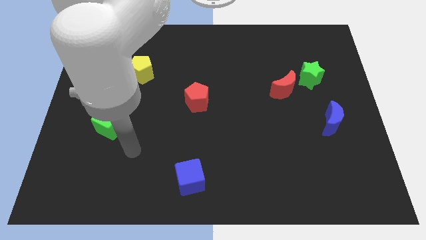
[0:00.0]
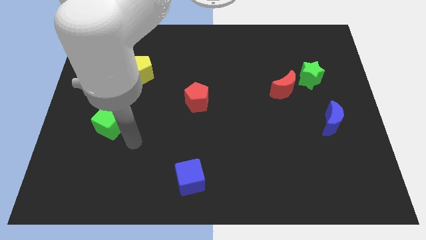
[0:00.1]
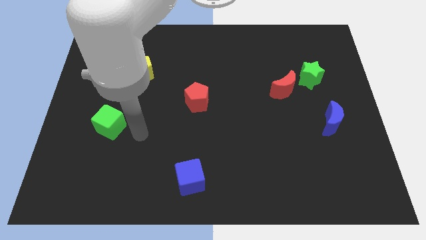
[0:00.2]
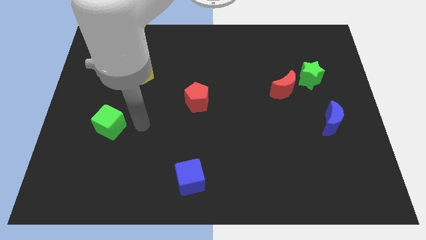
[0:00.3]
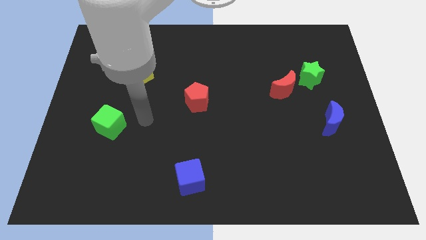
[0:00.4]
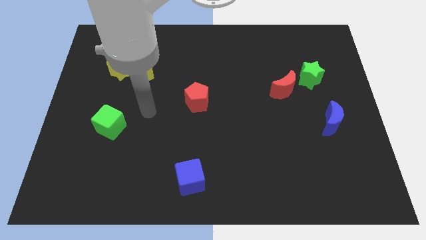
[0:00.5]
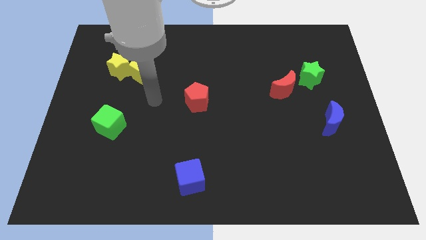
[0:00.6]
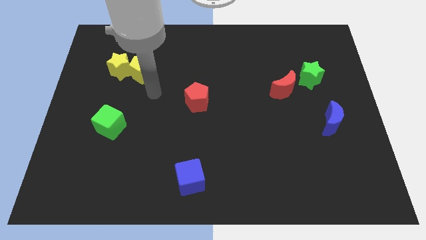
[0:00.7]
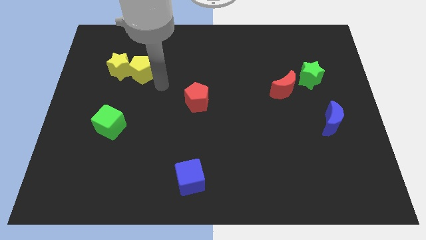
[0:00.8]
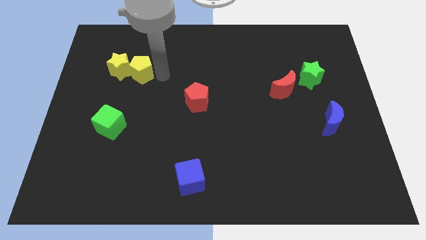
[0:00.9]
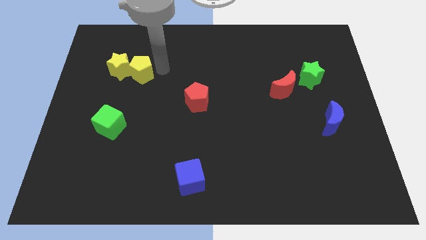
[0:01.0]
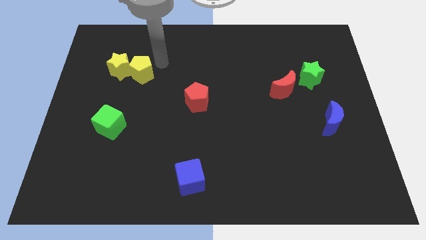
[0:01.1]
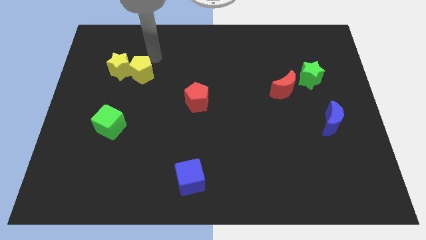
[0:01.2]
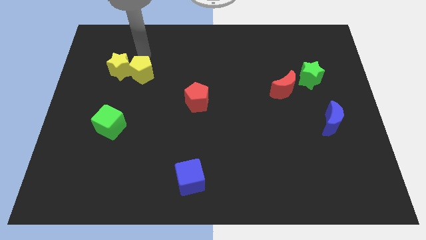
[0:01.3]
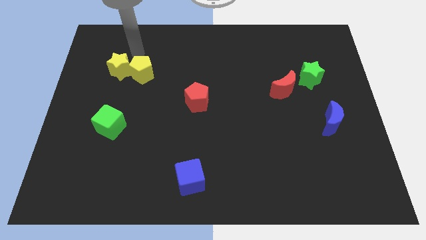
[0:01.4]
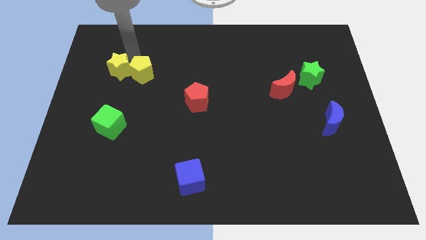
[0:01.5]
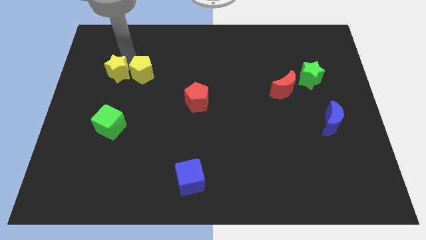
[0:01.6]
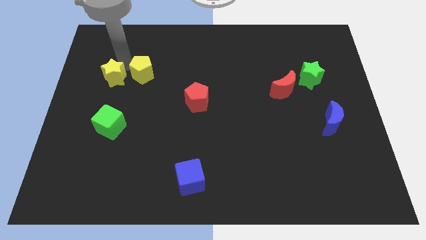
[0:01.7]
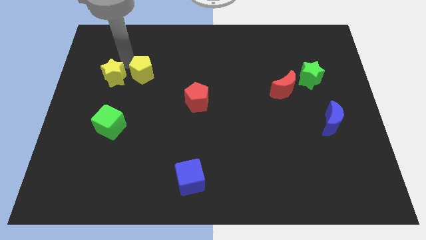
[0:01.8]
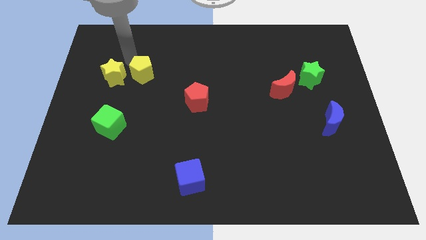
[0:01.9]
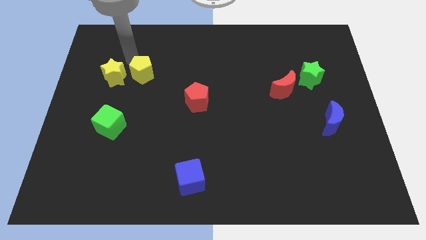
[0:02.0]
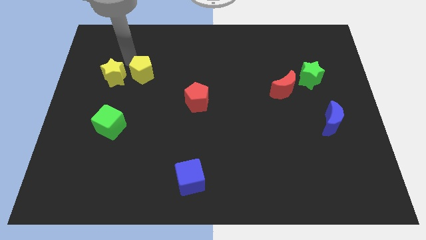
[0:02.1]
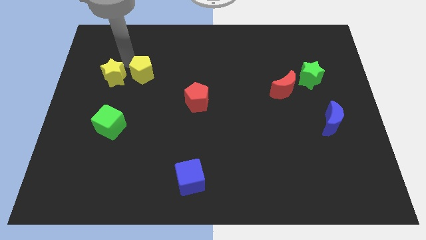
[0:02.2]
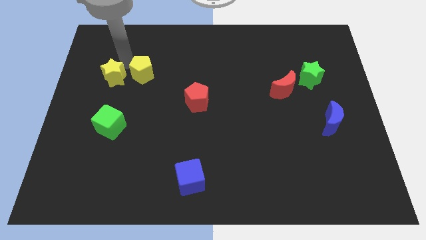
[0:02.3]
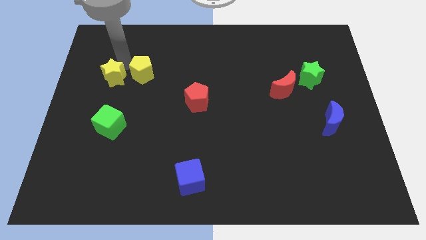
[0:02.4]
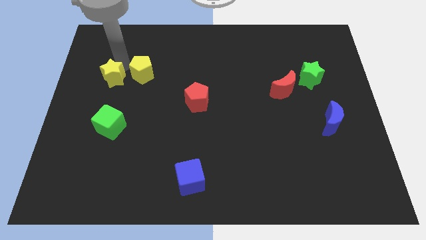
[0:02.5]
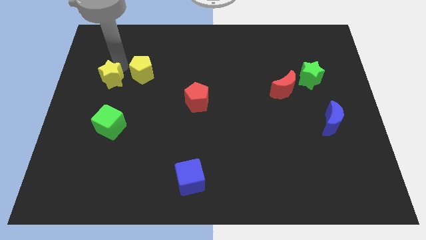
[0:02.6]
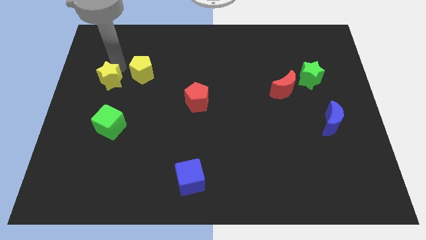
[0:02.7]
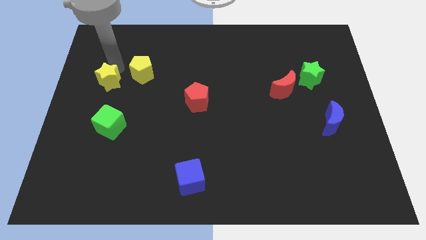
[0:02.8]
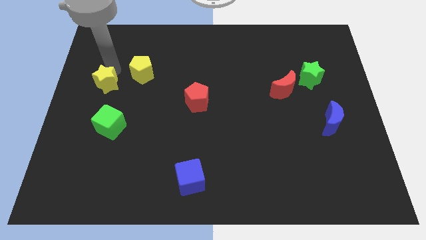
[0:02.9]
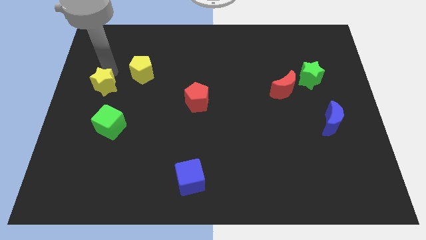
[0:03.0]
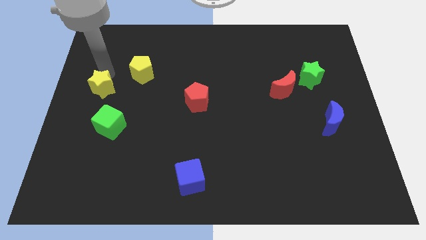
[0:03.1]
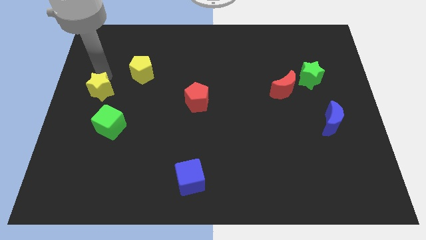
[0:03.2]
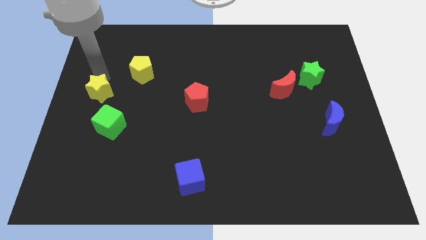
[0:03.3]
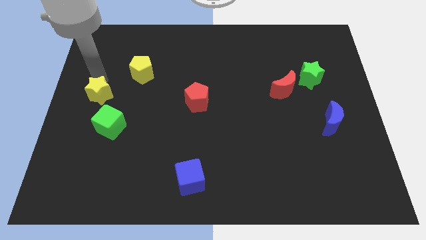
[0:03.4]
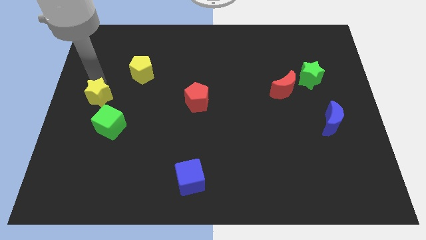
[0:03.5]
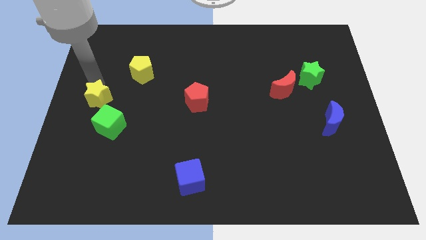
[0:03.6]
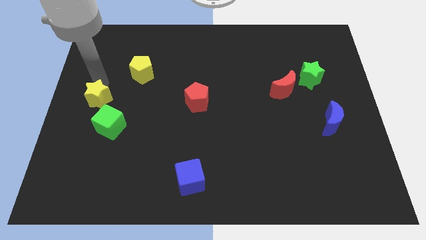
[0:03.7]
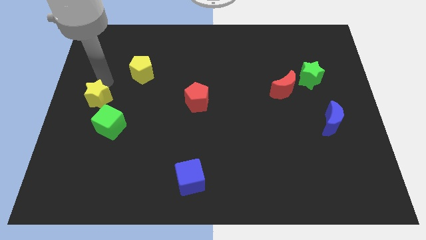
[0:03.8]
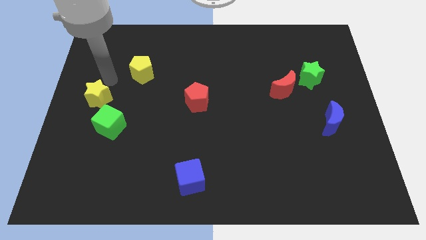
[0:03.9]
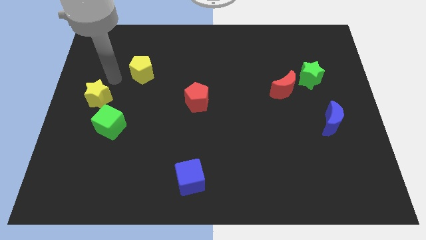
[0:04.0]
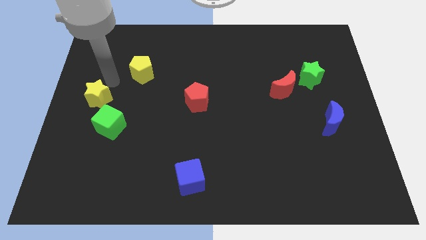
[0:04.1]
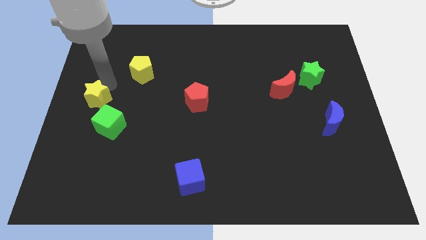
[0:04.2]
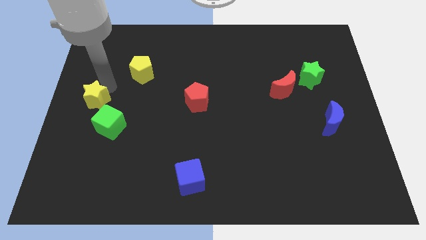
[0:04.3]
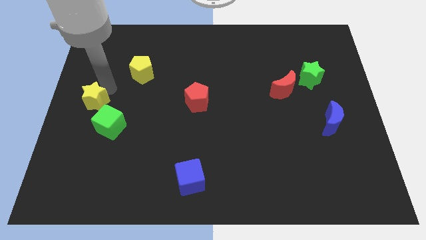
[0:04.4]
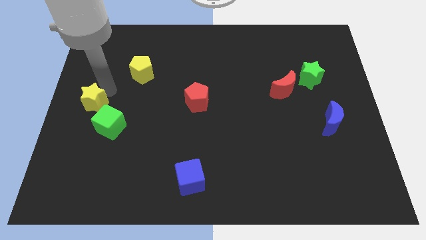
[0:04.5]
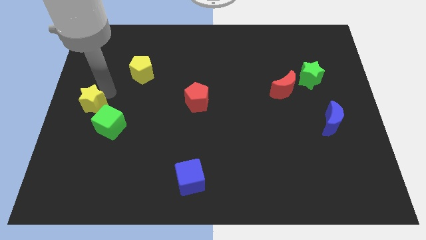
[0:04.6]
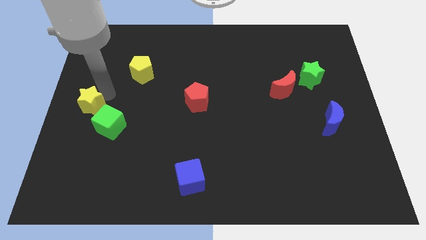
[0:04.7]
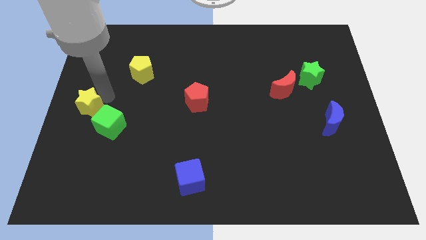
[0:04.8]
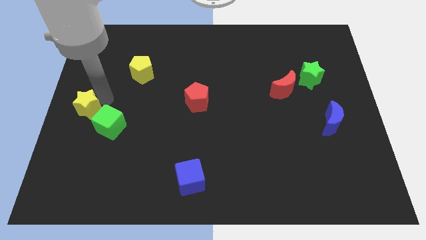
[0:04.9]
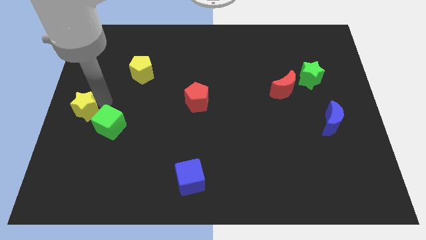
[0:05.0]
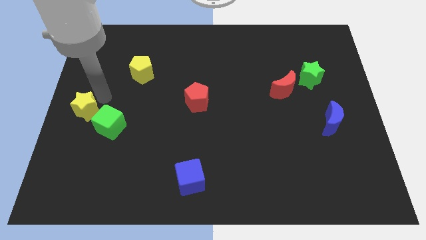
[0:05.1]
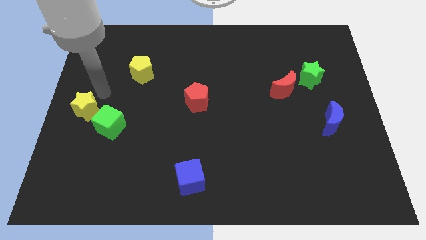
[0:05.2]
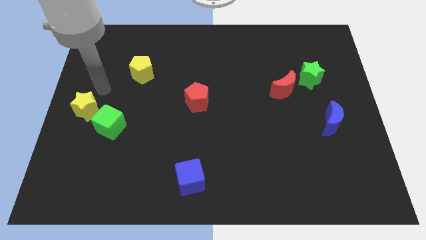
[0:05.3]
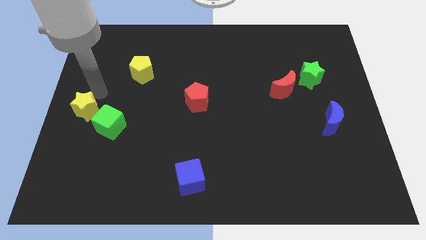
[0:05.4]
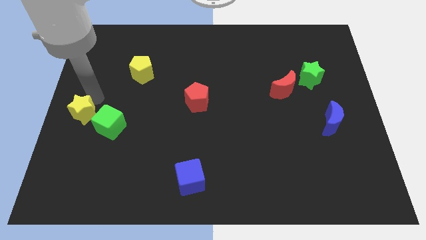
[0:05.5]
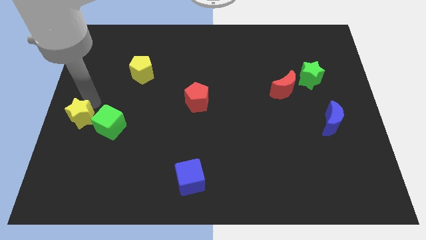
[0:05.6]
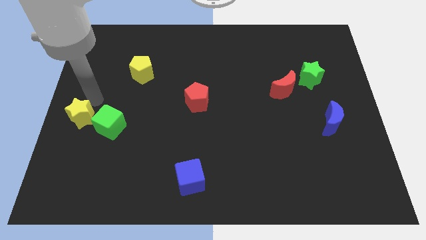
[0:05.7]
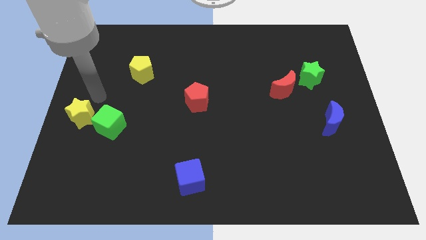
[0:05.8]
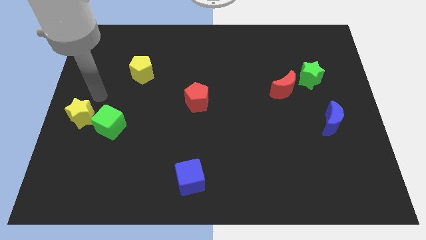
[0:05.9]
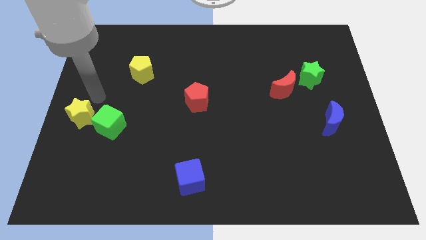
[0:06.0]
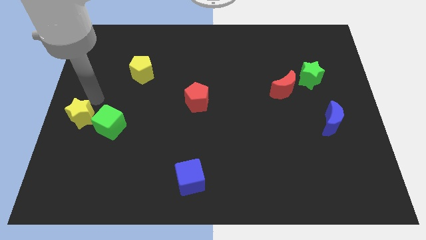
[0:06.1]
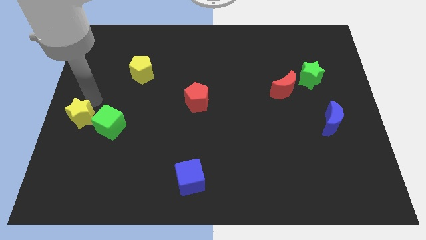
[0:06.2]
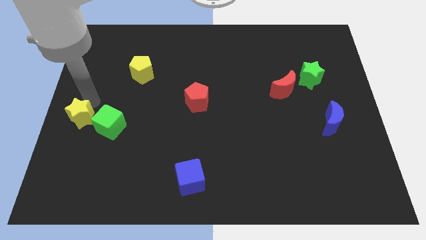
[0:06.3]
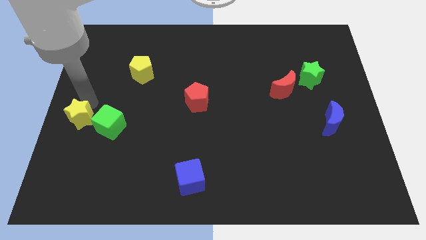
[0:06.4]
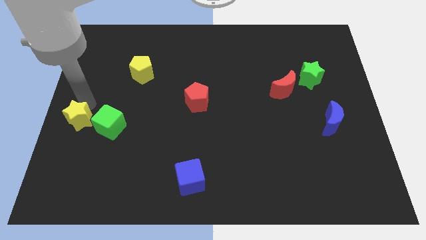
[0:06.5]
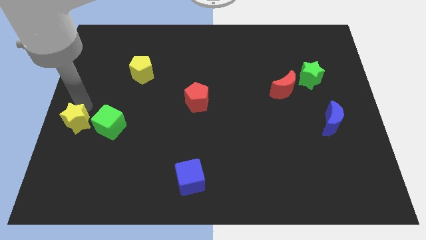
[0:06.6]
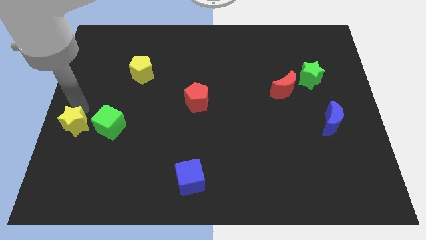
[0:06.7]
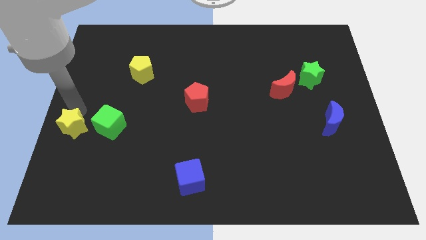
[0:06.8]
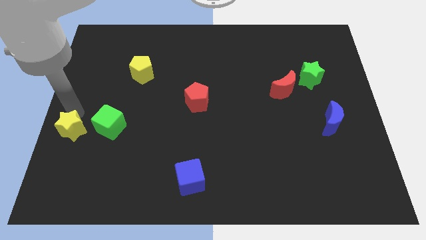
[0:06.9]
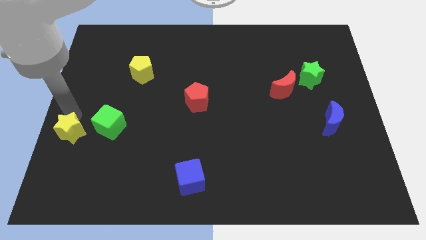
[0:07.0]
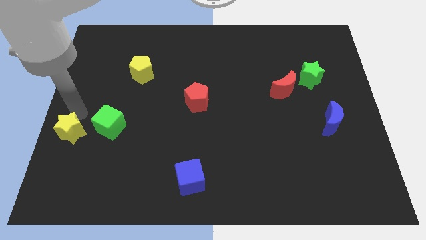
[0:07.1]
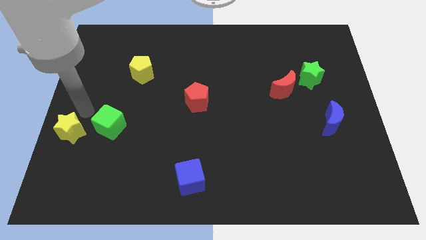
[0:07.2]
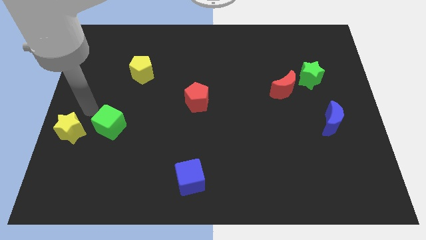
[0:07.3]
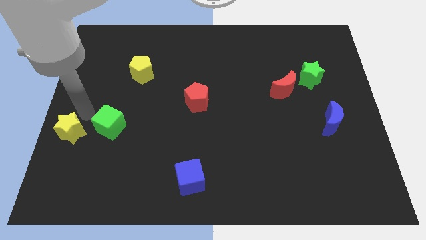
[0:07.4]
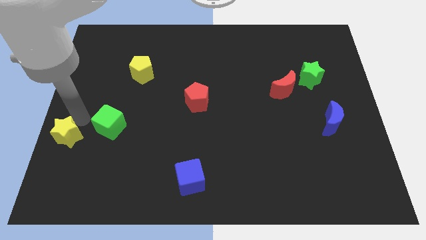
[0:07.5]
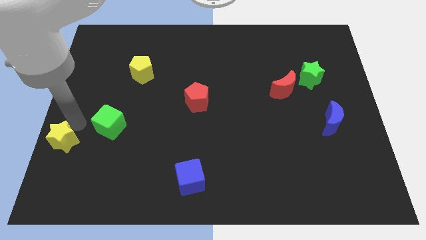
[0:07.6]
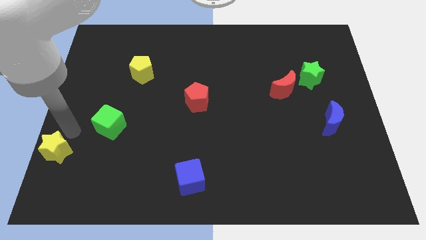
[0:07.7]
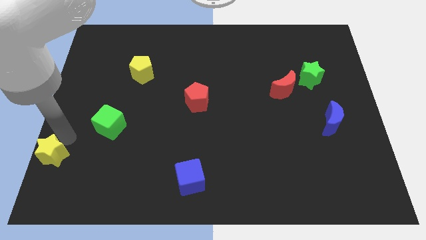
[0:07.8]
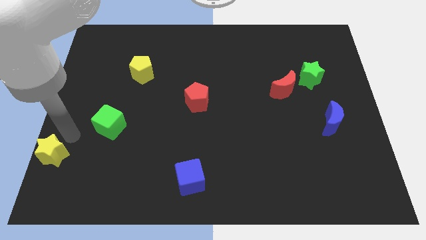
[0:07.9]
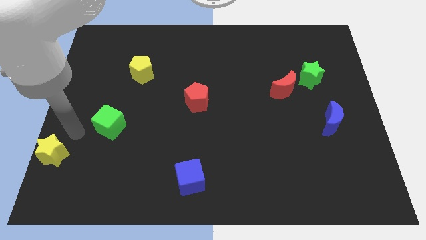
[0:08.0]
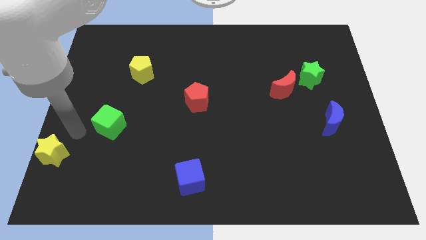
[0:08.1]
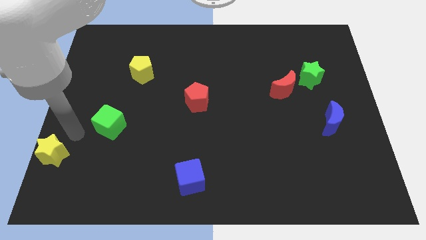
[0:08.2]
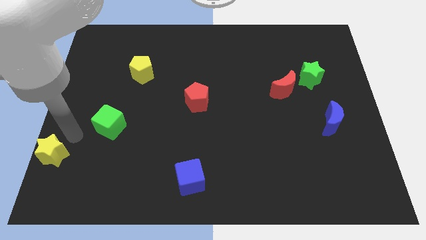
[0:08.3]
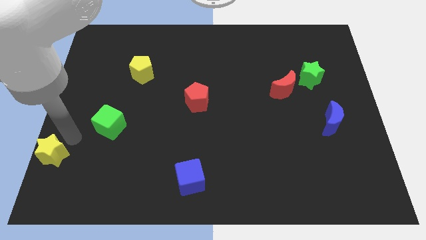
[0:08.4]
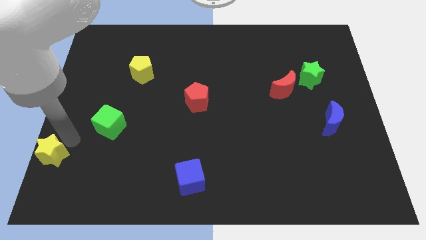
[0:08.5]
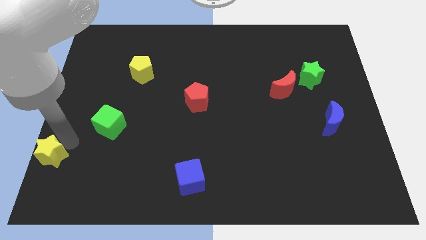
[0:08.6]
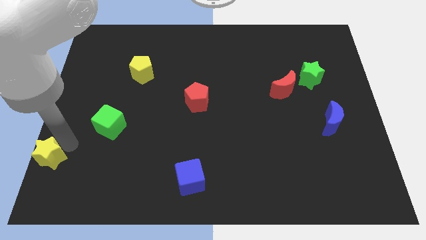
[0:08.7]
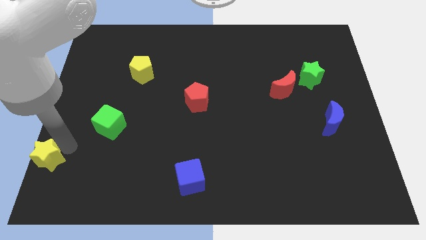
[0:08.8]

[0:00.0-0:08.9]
slide the yellow star to the bottom left of the board
